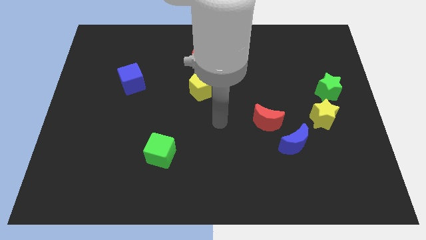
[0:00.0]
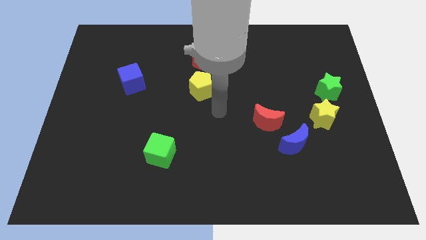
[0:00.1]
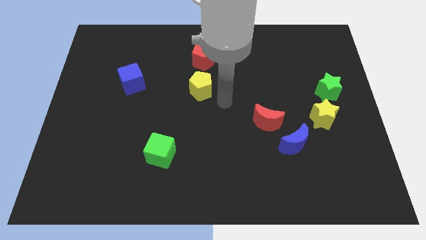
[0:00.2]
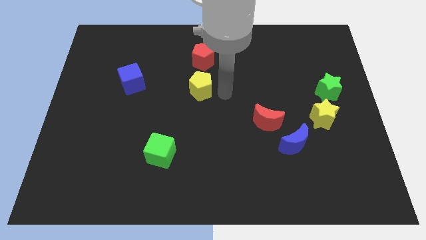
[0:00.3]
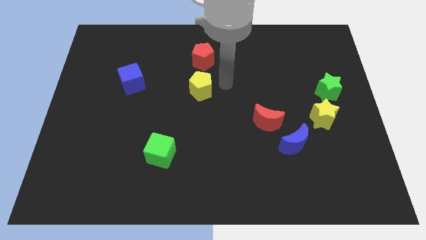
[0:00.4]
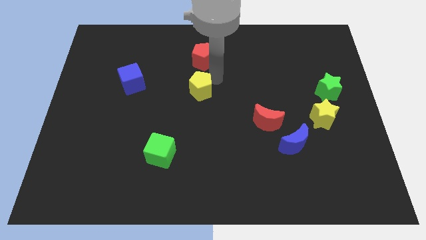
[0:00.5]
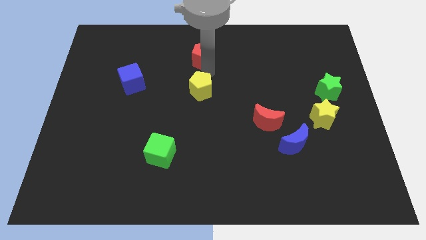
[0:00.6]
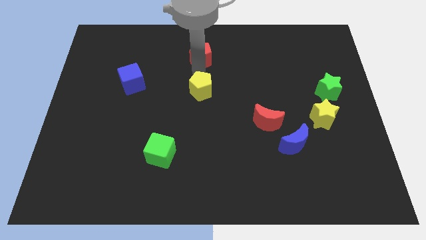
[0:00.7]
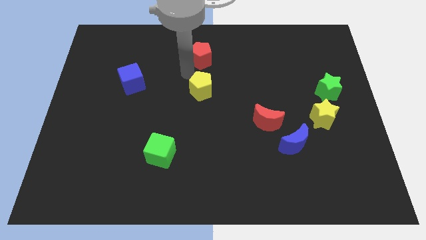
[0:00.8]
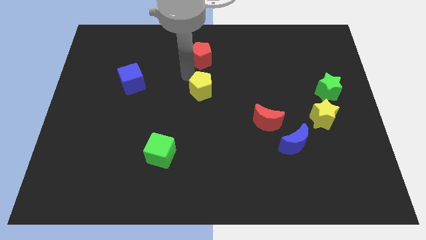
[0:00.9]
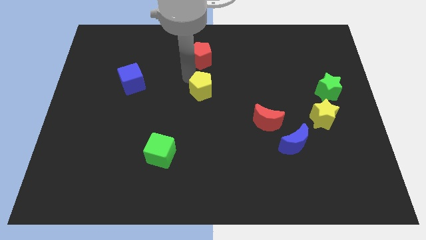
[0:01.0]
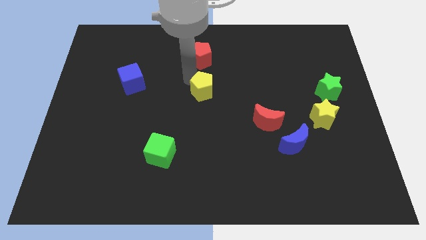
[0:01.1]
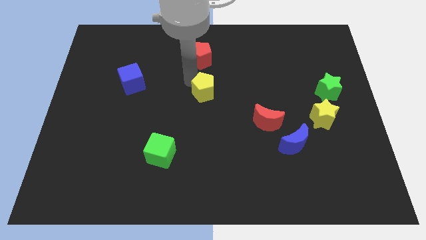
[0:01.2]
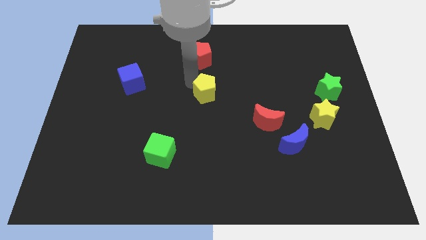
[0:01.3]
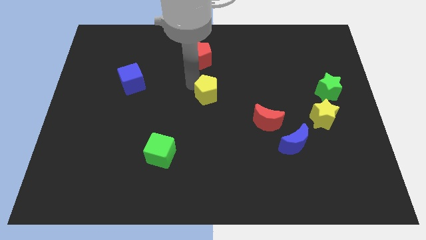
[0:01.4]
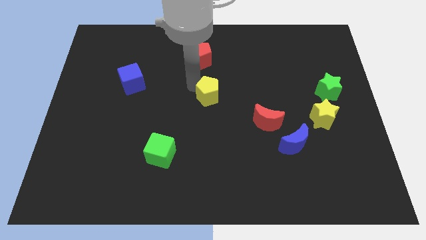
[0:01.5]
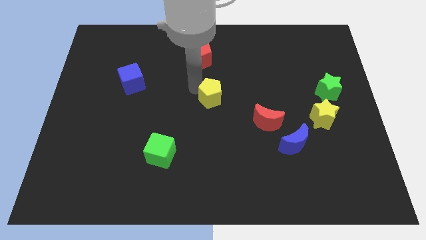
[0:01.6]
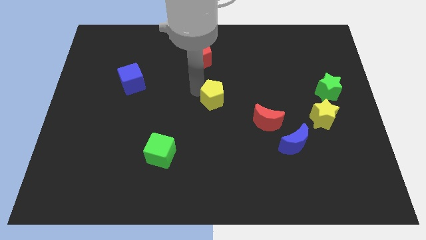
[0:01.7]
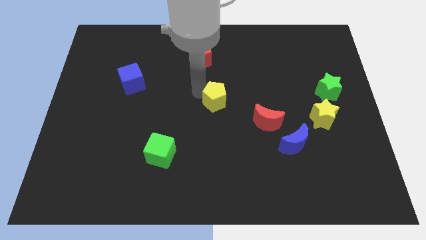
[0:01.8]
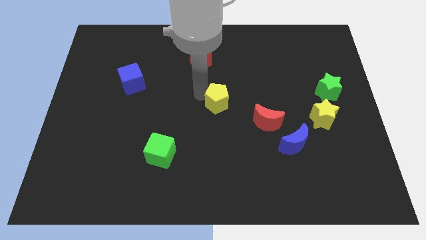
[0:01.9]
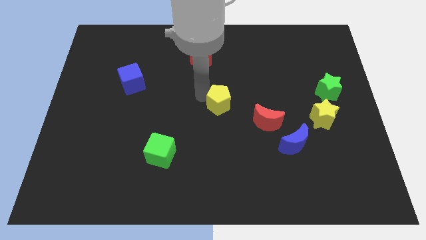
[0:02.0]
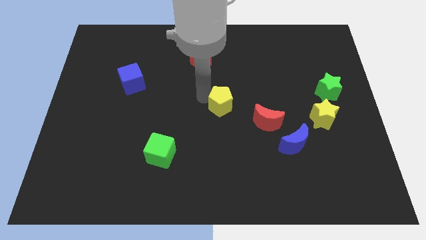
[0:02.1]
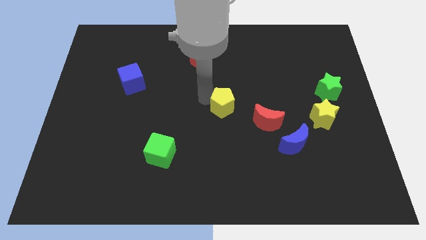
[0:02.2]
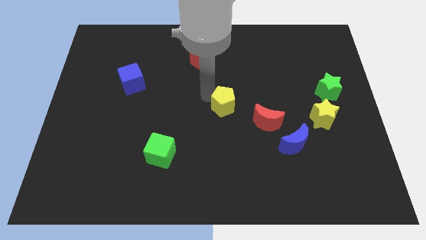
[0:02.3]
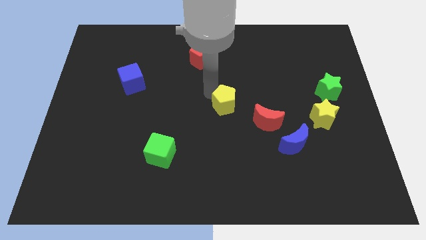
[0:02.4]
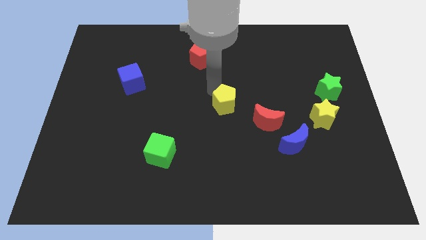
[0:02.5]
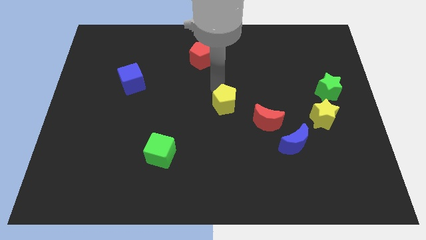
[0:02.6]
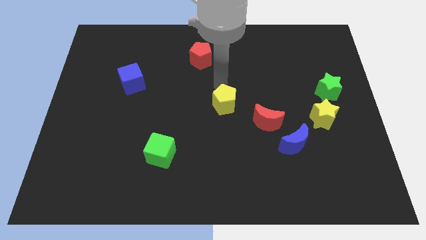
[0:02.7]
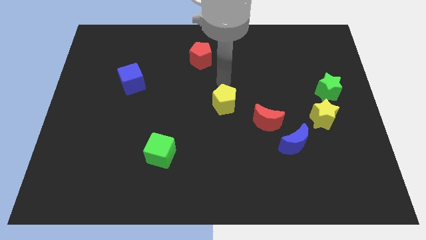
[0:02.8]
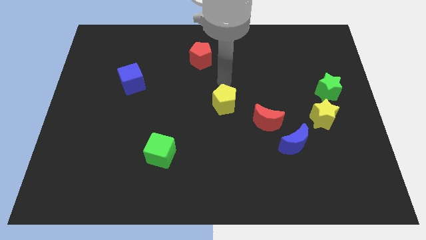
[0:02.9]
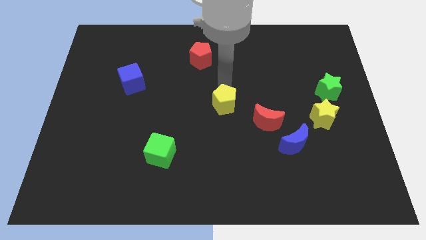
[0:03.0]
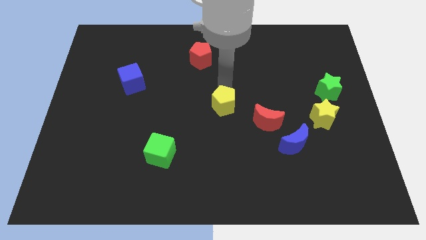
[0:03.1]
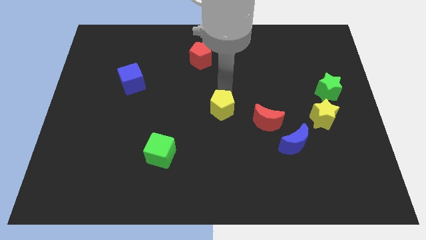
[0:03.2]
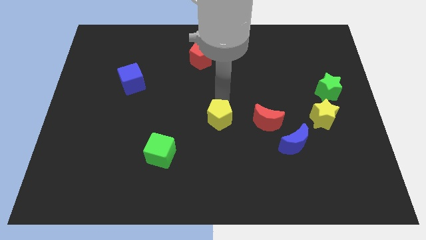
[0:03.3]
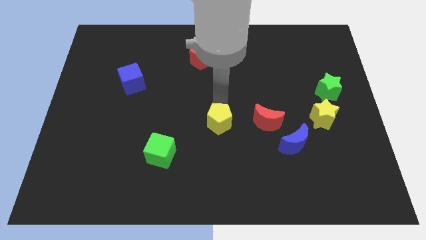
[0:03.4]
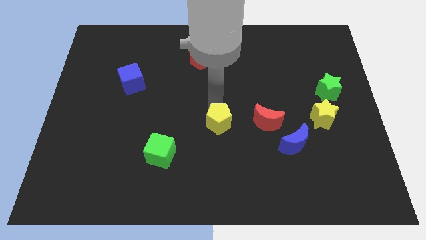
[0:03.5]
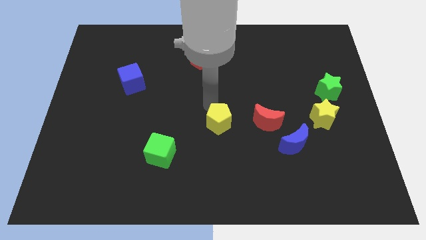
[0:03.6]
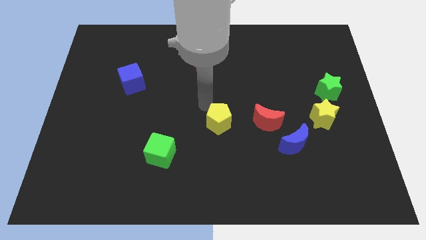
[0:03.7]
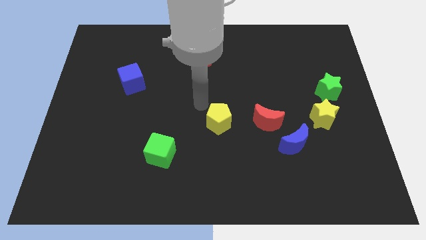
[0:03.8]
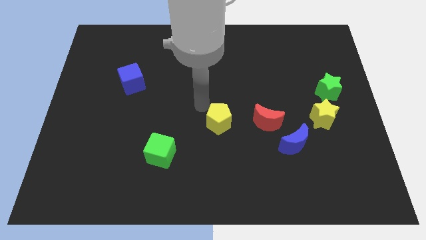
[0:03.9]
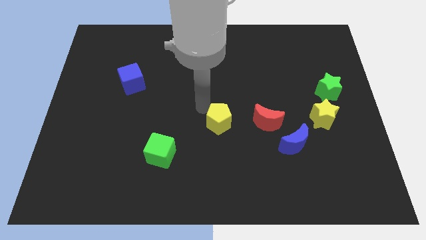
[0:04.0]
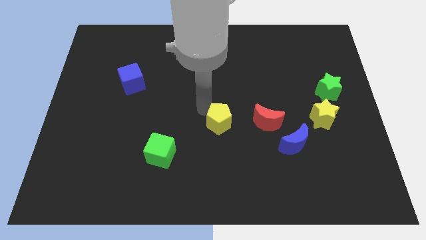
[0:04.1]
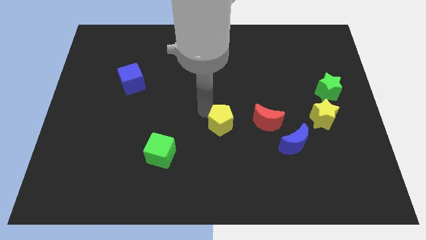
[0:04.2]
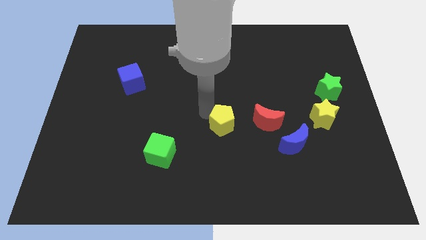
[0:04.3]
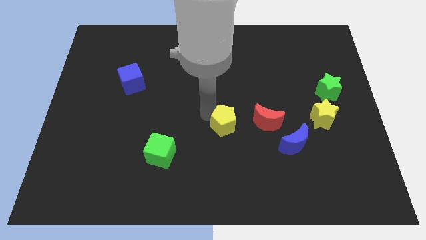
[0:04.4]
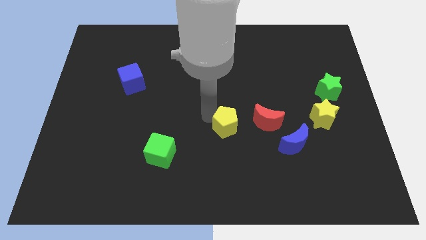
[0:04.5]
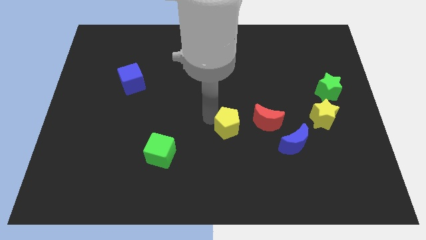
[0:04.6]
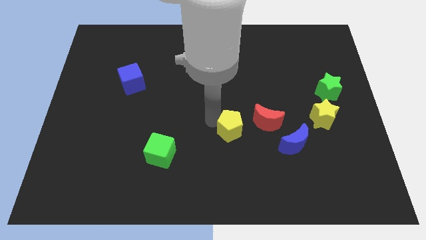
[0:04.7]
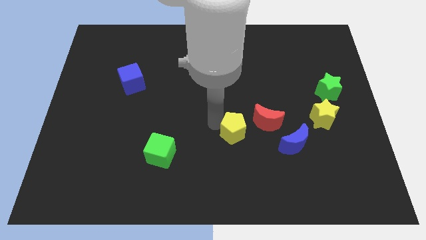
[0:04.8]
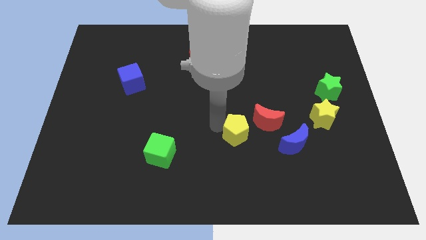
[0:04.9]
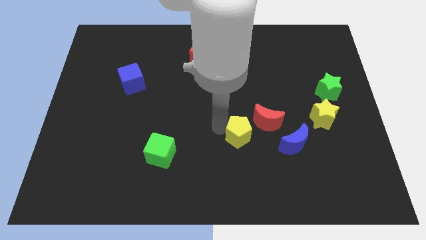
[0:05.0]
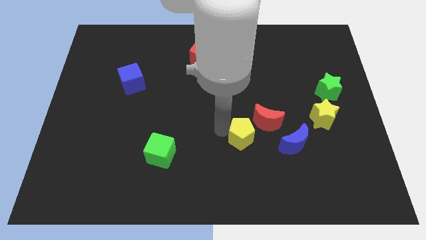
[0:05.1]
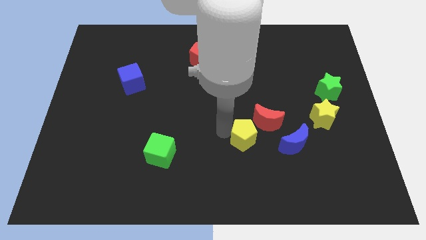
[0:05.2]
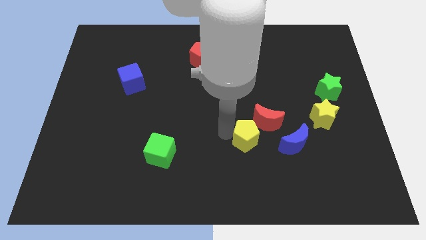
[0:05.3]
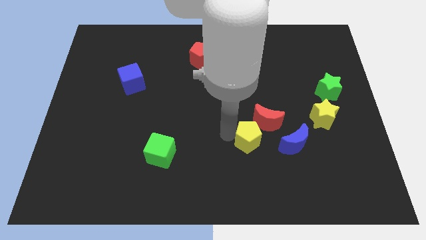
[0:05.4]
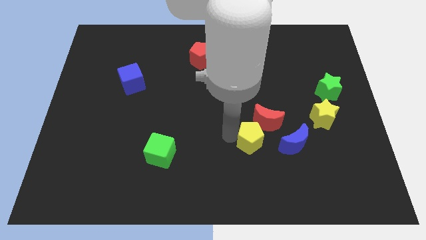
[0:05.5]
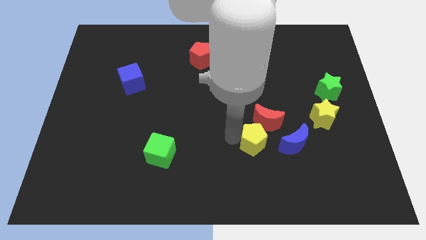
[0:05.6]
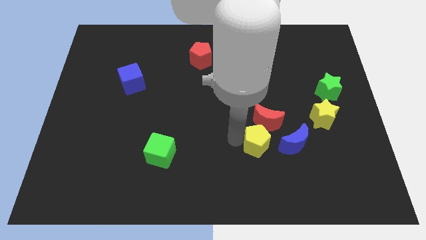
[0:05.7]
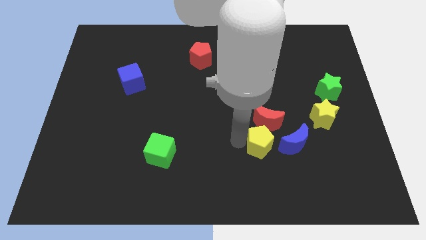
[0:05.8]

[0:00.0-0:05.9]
move the yellow pentagon down and to the right

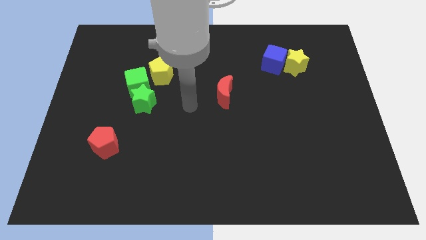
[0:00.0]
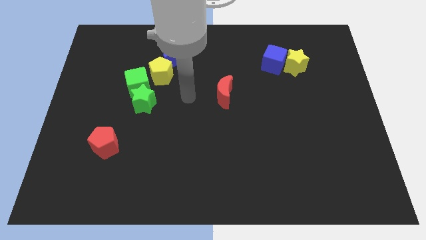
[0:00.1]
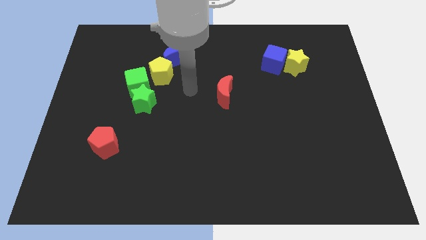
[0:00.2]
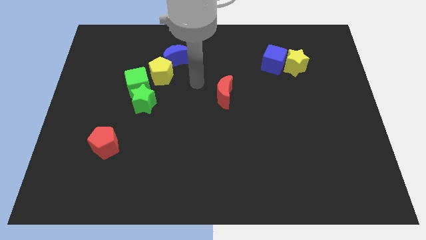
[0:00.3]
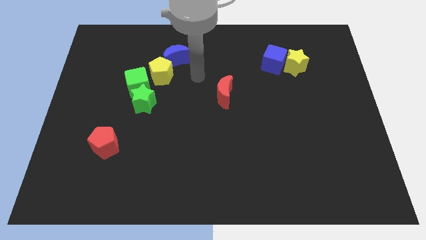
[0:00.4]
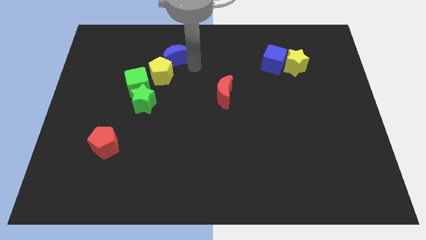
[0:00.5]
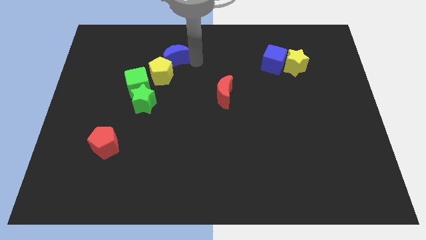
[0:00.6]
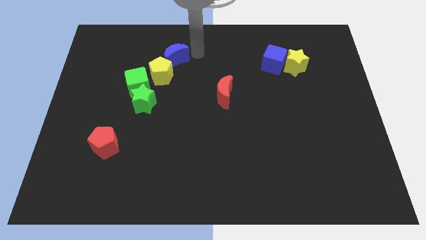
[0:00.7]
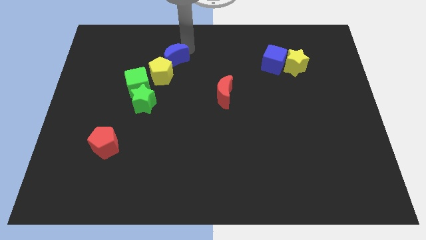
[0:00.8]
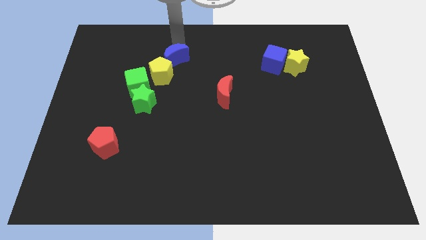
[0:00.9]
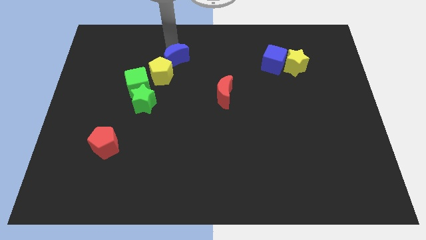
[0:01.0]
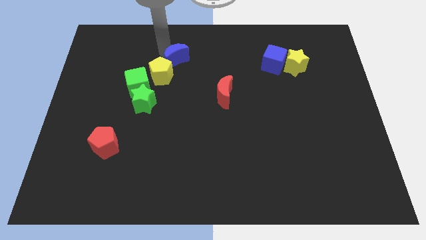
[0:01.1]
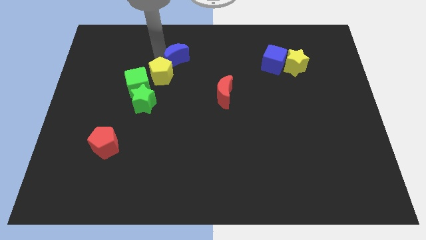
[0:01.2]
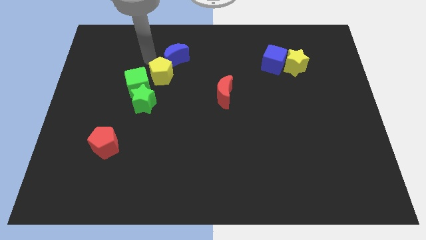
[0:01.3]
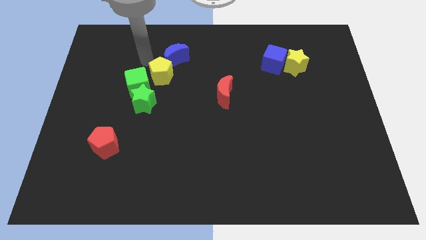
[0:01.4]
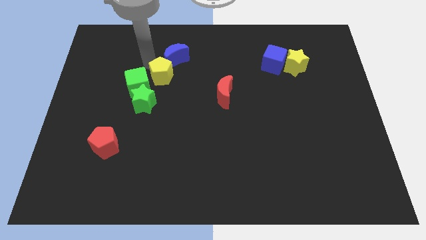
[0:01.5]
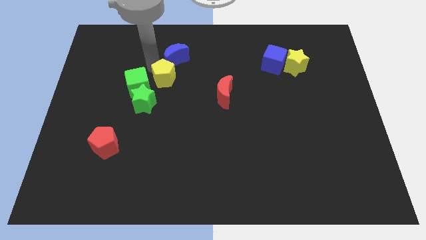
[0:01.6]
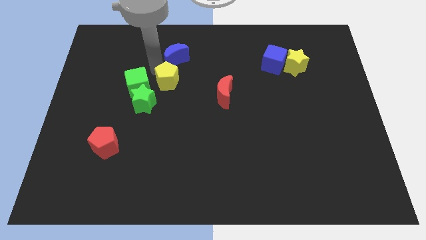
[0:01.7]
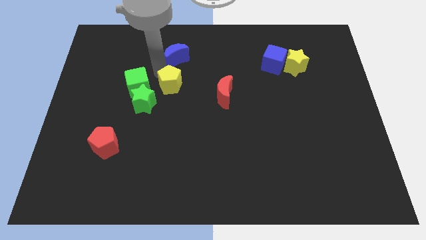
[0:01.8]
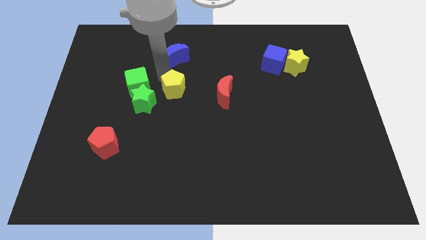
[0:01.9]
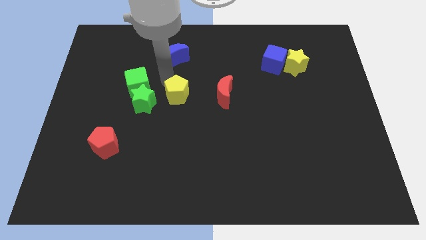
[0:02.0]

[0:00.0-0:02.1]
slightly slide the yellow pentagon down and to the right diagonally
